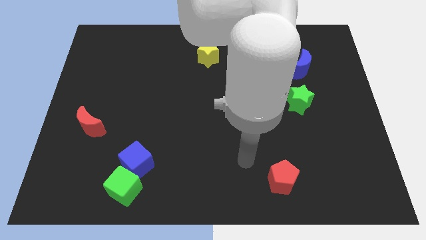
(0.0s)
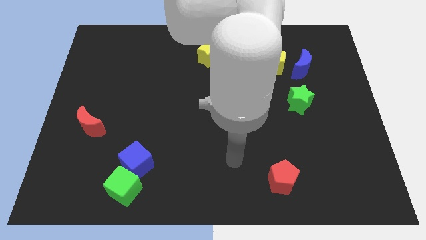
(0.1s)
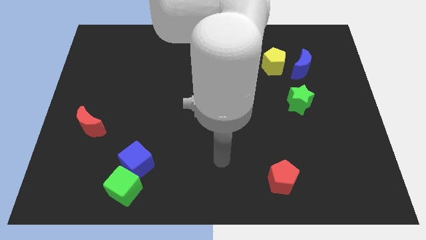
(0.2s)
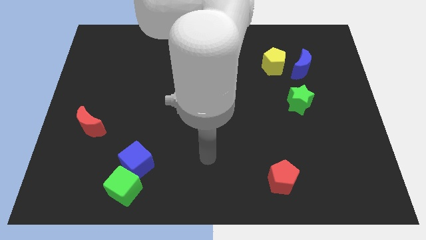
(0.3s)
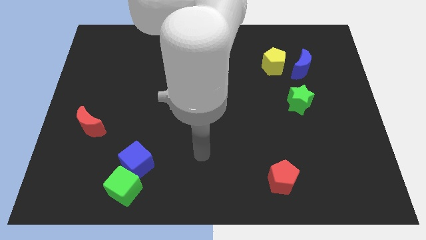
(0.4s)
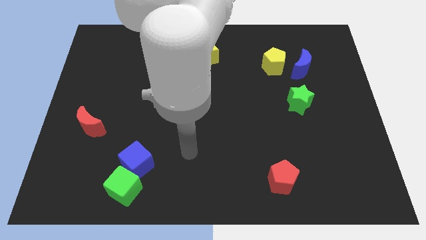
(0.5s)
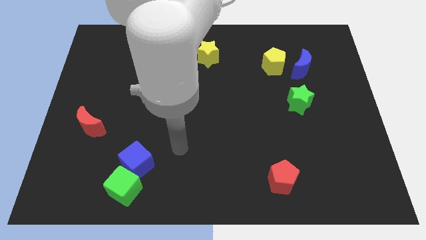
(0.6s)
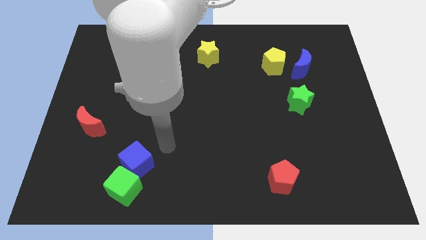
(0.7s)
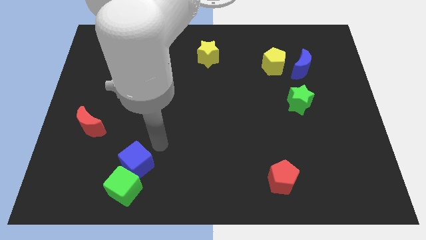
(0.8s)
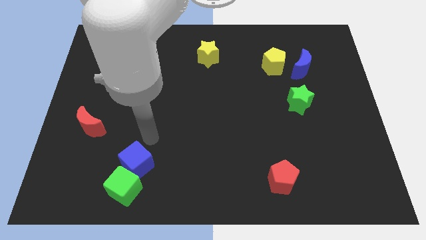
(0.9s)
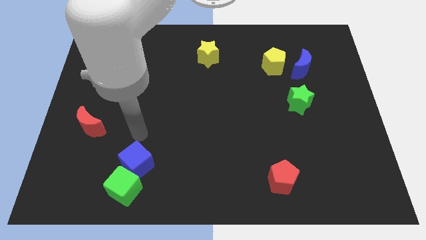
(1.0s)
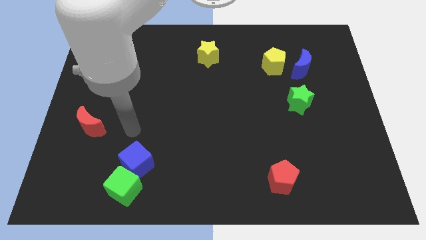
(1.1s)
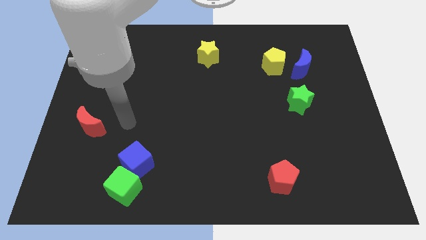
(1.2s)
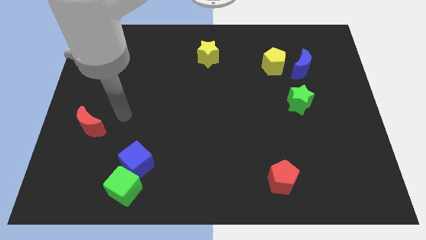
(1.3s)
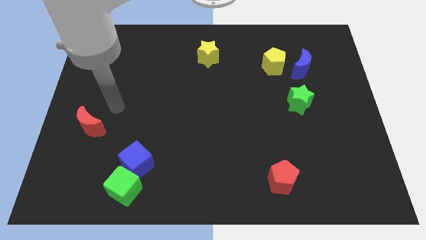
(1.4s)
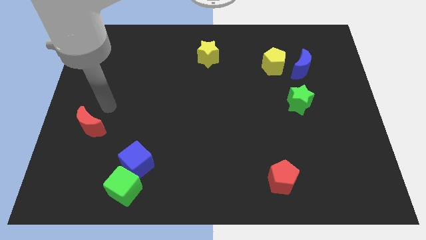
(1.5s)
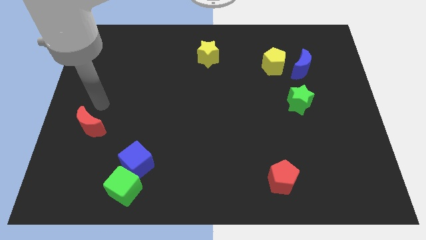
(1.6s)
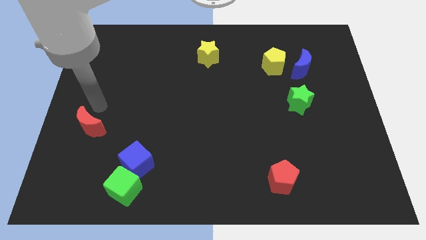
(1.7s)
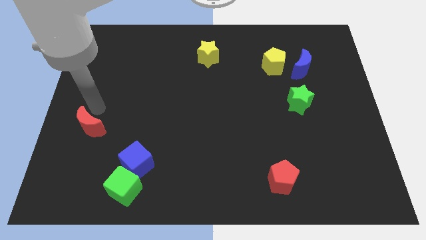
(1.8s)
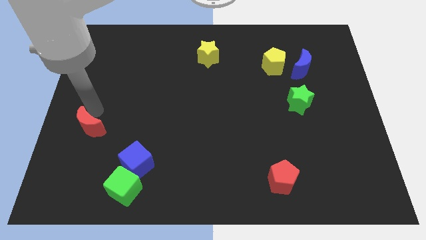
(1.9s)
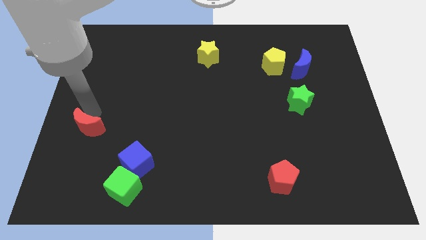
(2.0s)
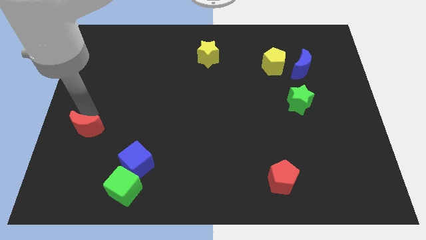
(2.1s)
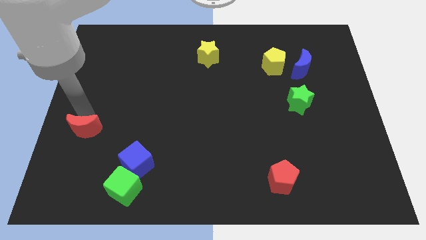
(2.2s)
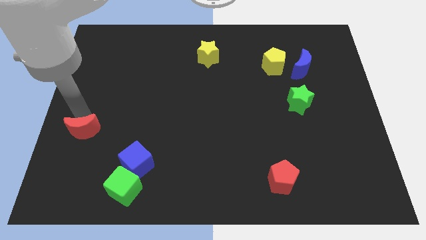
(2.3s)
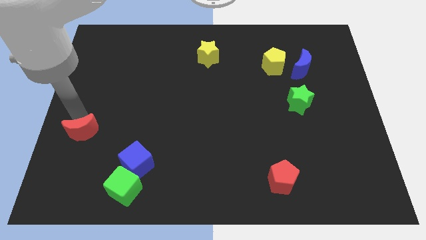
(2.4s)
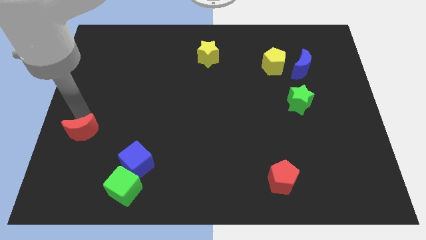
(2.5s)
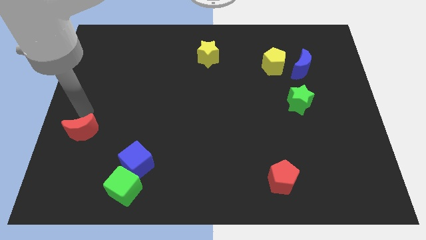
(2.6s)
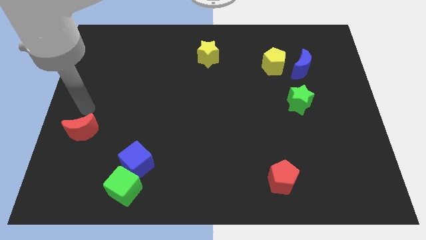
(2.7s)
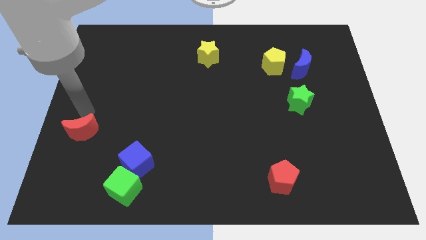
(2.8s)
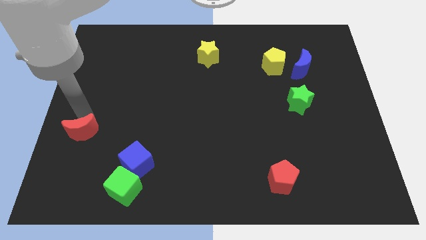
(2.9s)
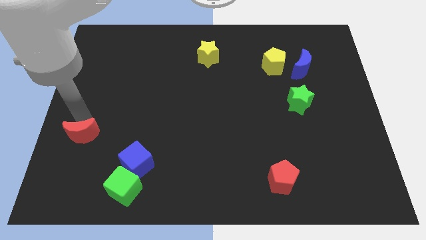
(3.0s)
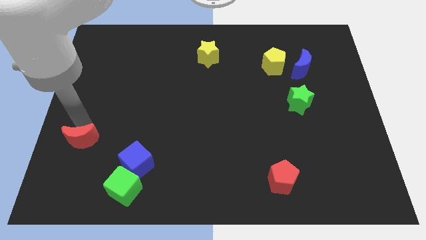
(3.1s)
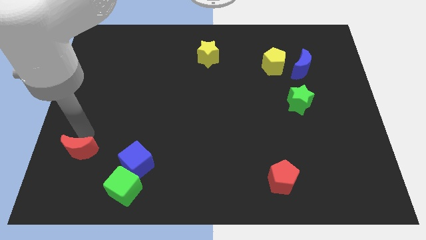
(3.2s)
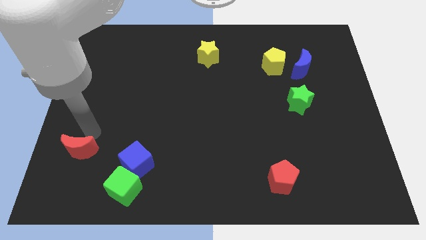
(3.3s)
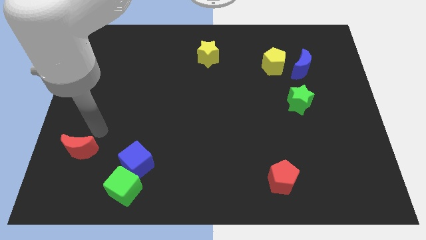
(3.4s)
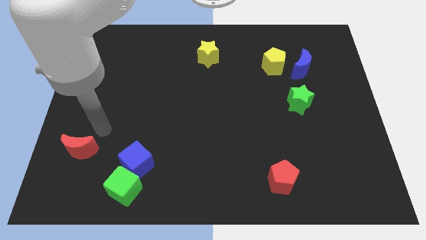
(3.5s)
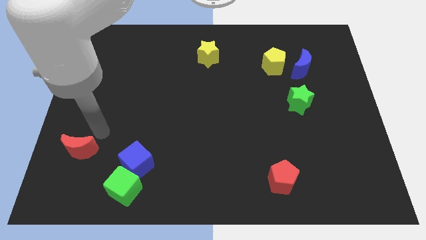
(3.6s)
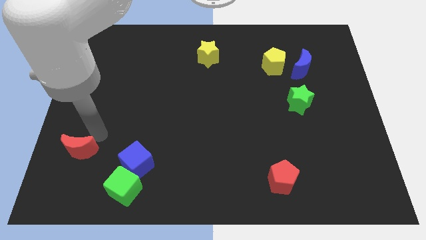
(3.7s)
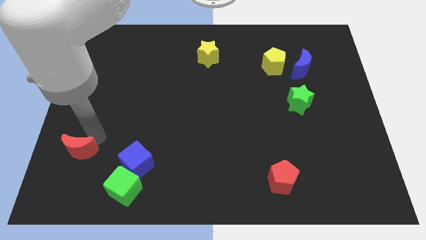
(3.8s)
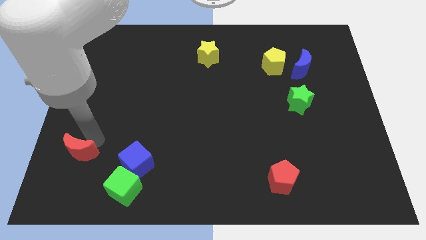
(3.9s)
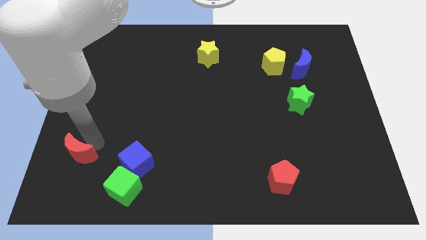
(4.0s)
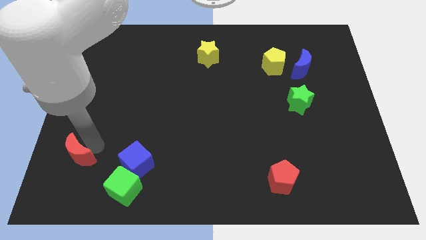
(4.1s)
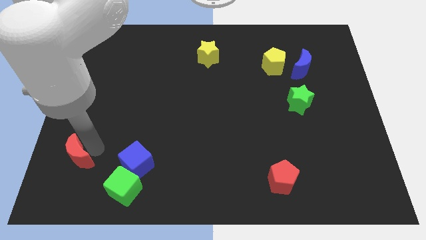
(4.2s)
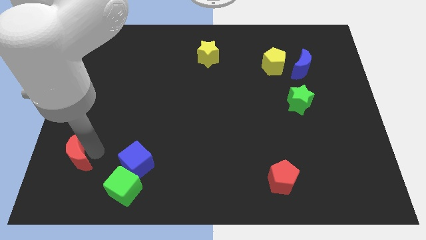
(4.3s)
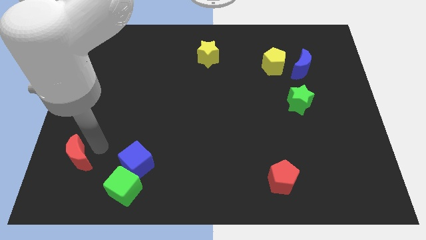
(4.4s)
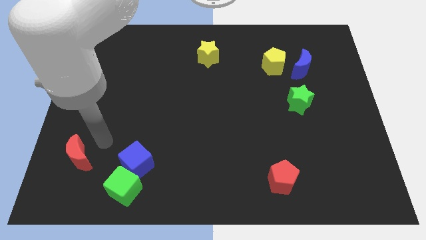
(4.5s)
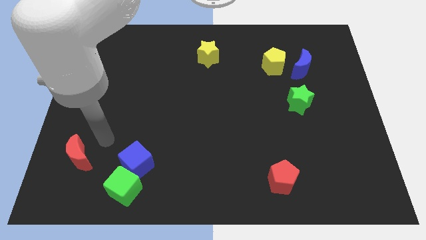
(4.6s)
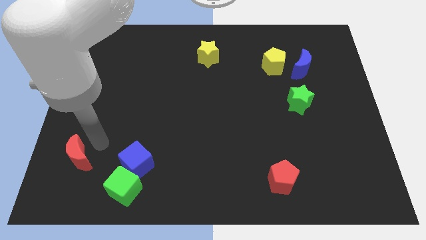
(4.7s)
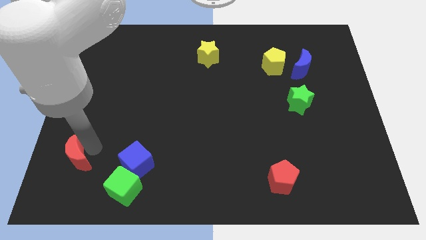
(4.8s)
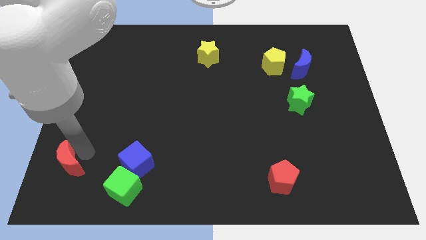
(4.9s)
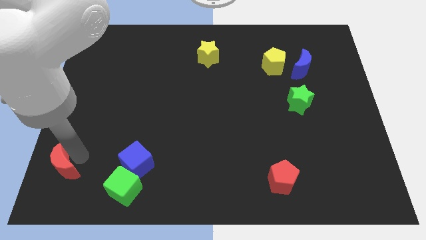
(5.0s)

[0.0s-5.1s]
move the red moon to the bottom left of the board

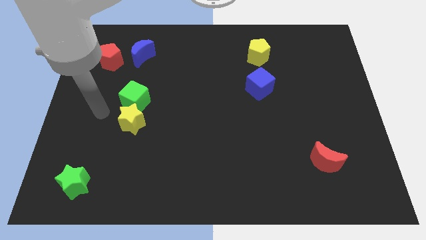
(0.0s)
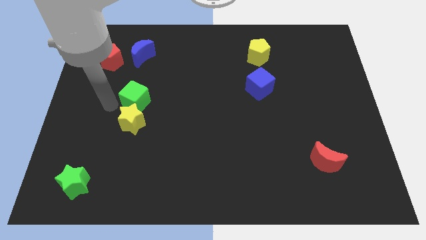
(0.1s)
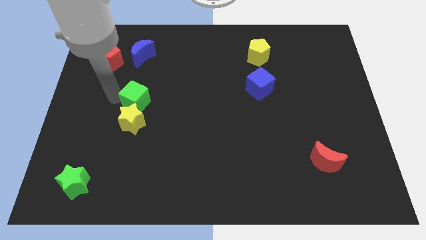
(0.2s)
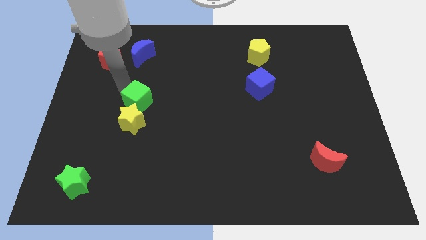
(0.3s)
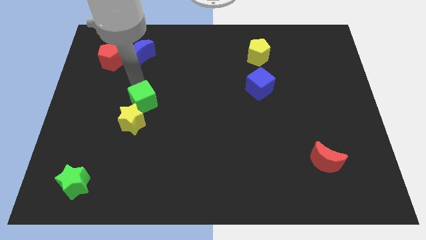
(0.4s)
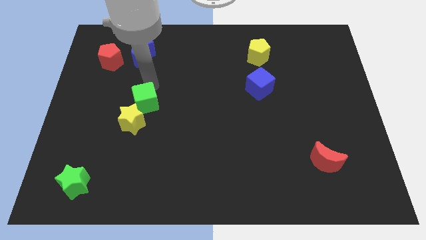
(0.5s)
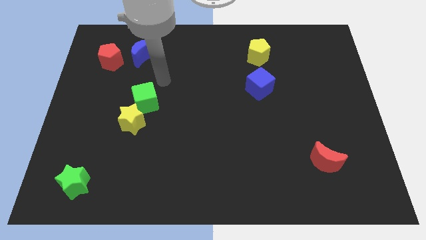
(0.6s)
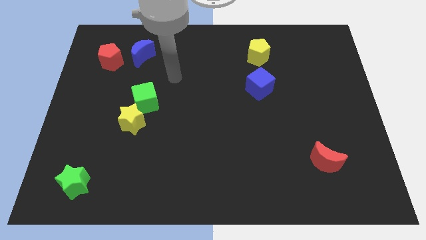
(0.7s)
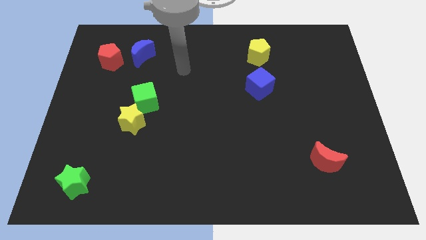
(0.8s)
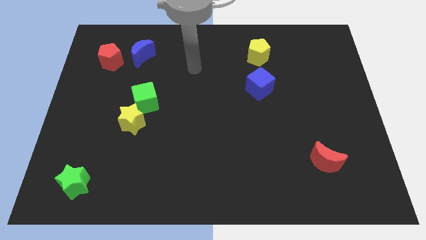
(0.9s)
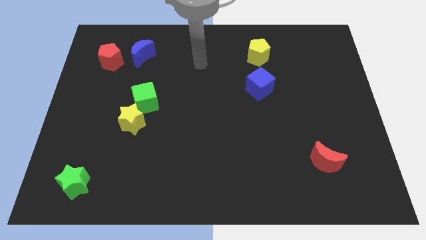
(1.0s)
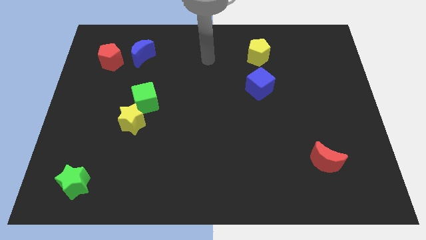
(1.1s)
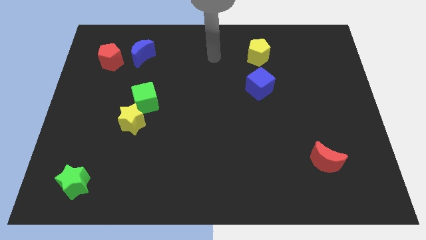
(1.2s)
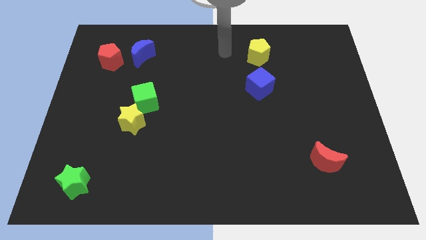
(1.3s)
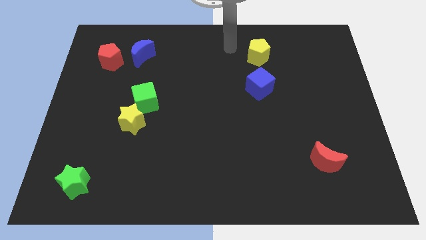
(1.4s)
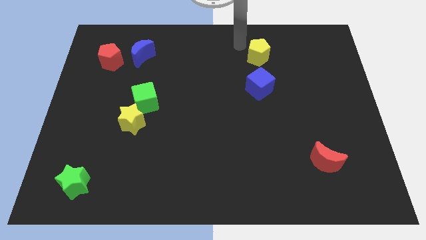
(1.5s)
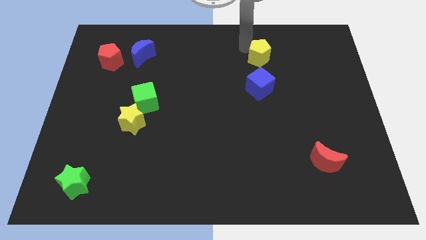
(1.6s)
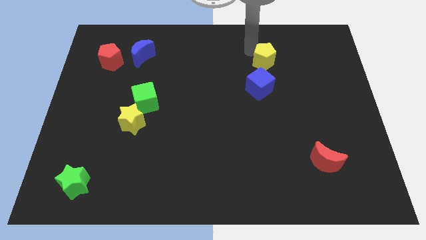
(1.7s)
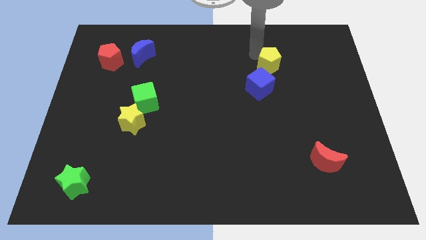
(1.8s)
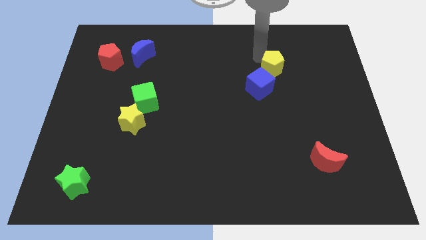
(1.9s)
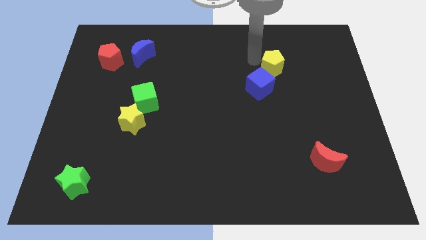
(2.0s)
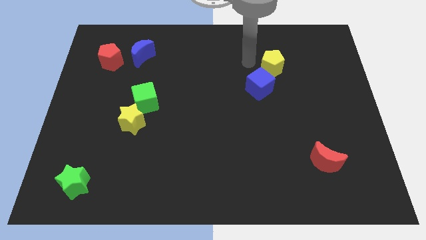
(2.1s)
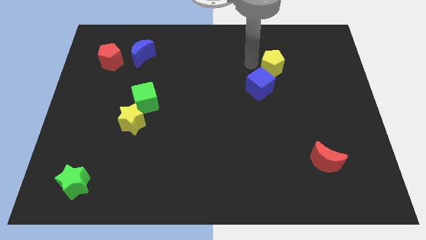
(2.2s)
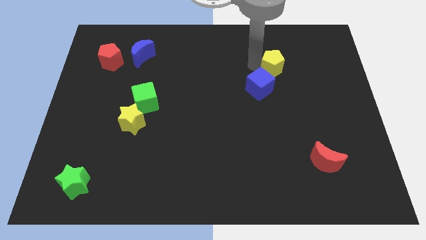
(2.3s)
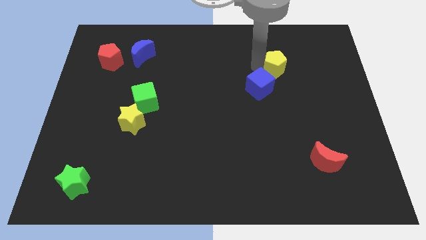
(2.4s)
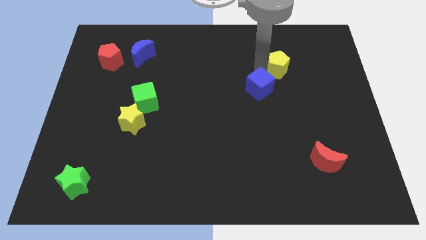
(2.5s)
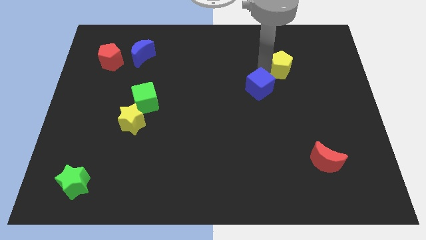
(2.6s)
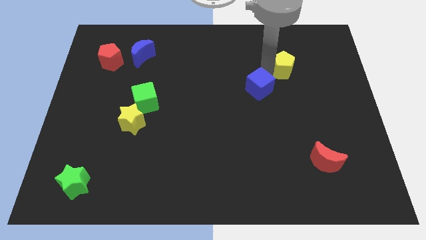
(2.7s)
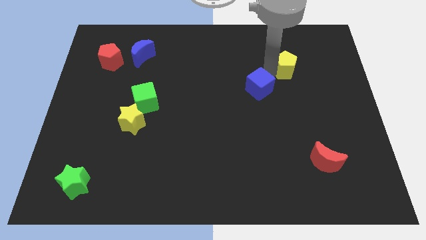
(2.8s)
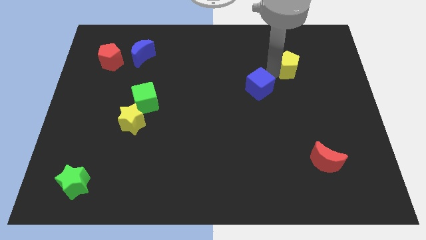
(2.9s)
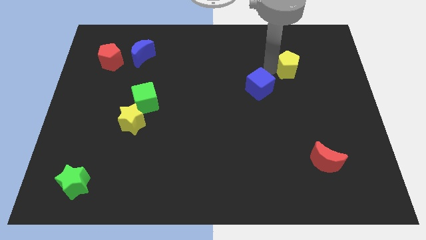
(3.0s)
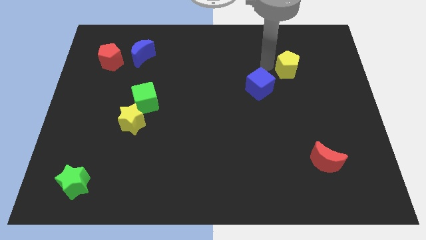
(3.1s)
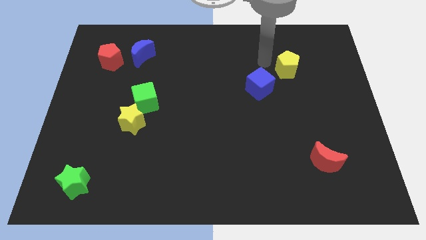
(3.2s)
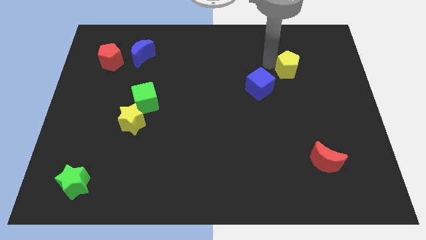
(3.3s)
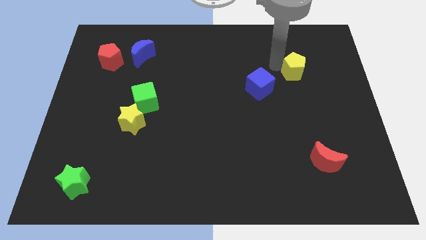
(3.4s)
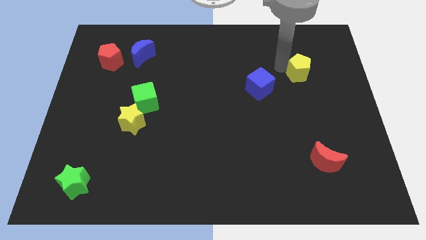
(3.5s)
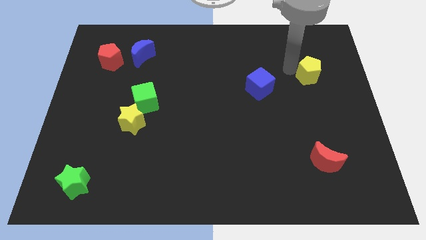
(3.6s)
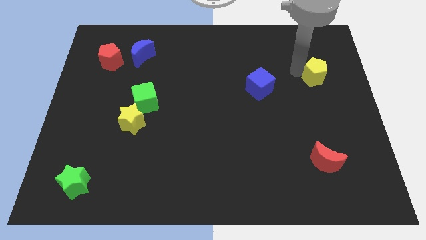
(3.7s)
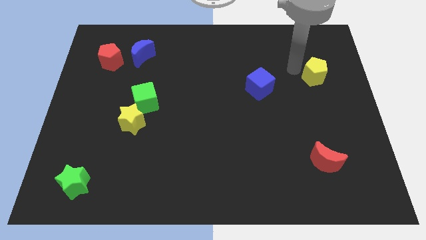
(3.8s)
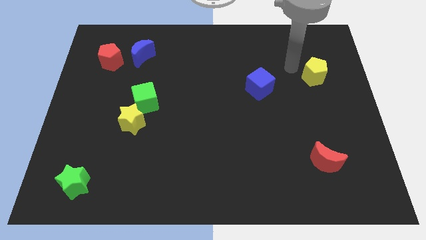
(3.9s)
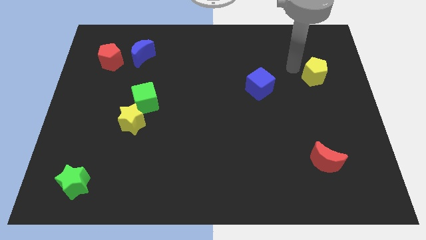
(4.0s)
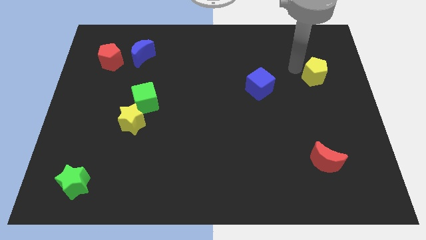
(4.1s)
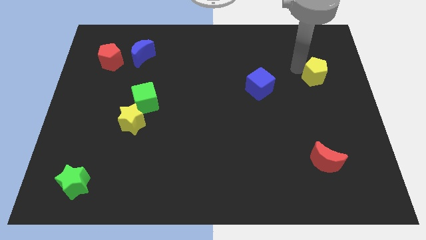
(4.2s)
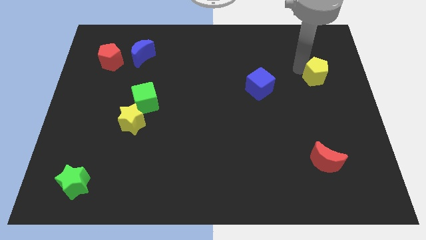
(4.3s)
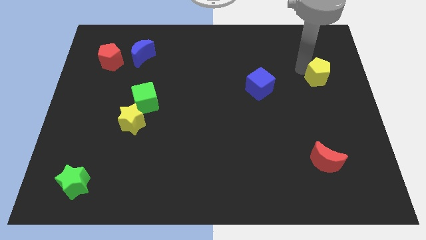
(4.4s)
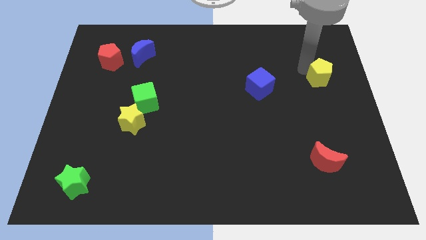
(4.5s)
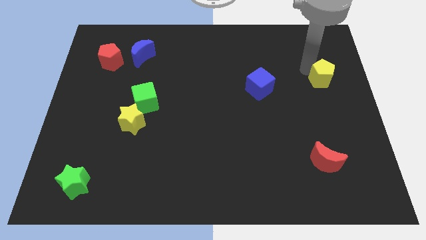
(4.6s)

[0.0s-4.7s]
put the yellow pentagon to the right side of the board
